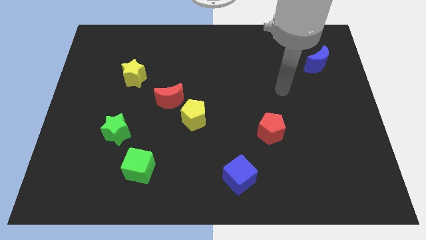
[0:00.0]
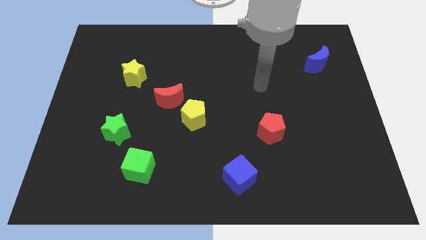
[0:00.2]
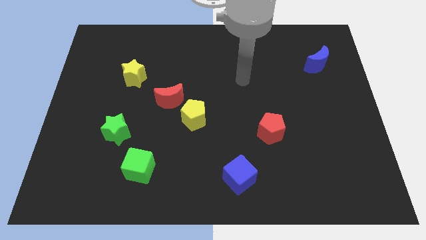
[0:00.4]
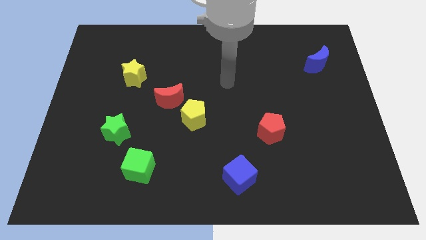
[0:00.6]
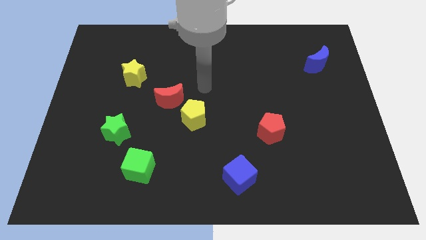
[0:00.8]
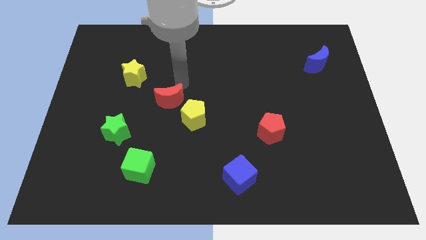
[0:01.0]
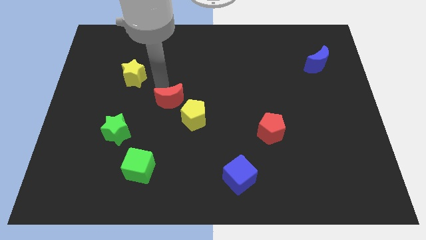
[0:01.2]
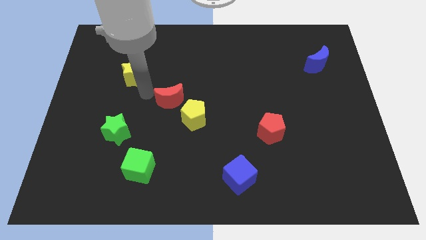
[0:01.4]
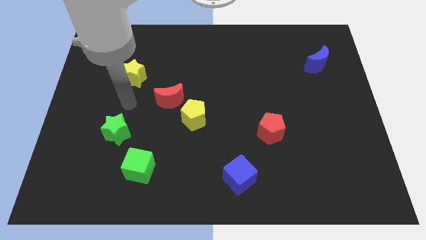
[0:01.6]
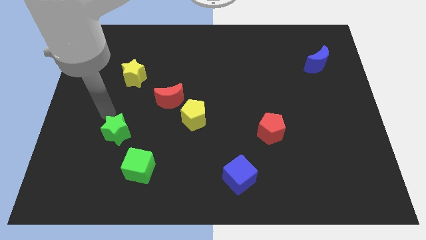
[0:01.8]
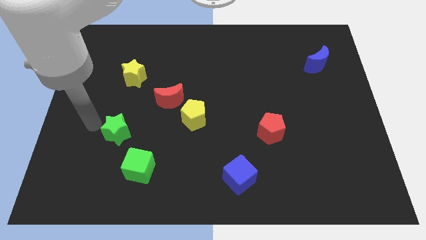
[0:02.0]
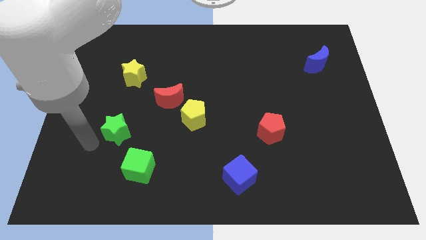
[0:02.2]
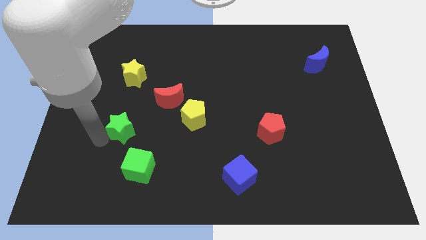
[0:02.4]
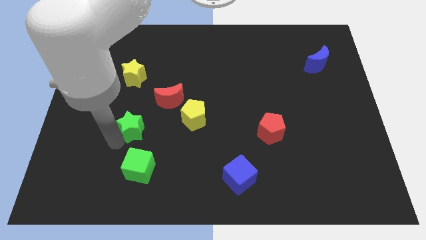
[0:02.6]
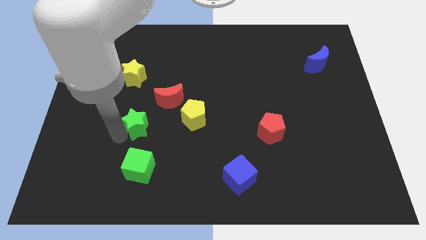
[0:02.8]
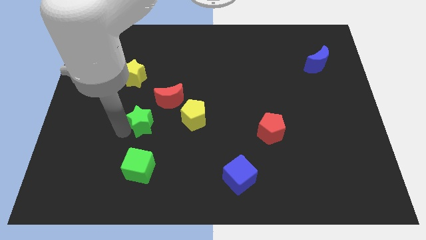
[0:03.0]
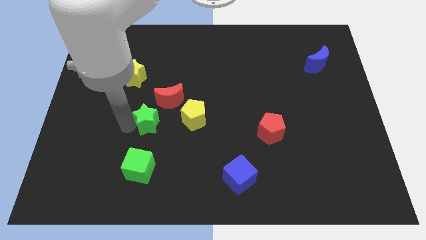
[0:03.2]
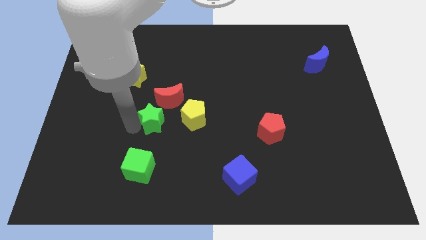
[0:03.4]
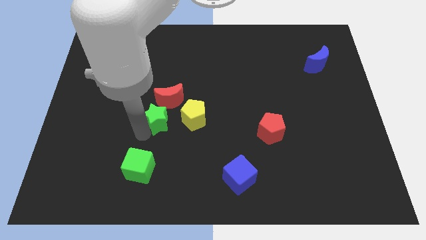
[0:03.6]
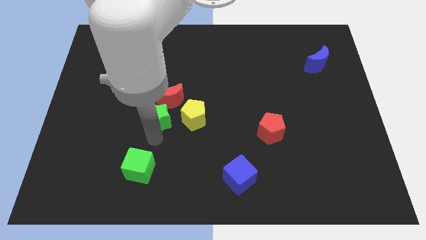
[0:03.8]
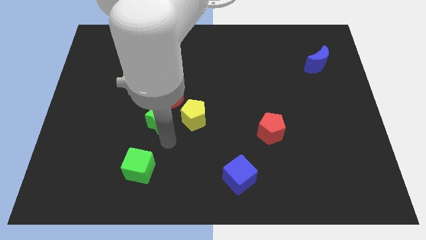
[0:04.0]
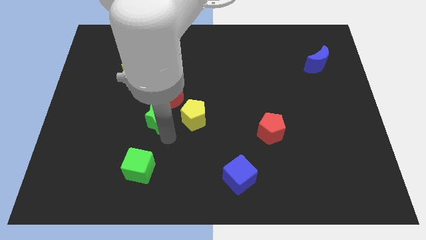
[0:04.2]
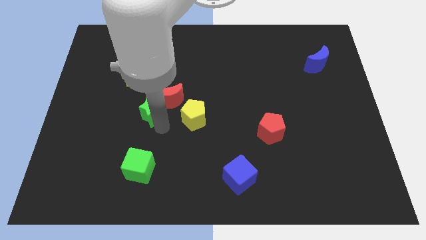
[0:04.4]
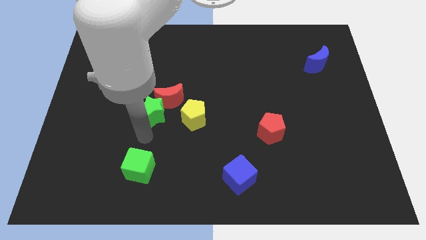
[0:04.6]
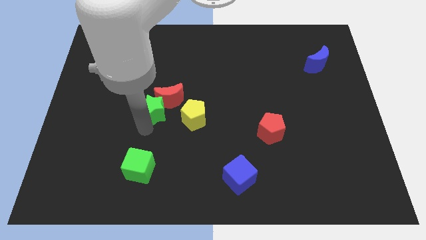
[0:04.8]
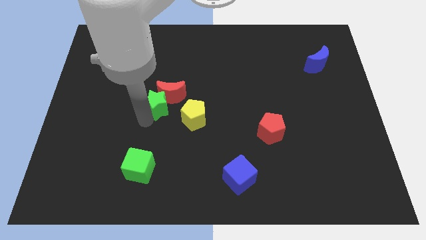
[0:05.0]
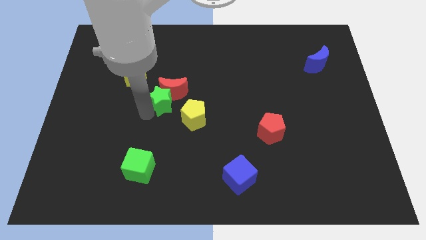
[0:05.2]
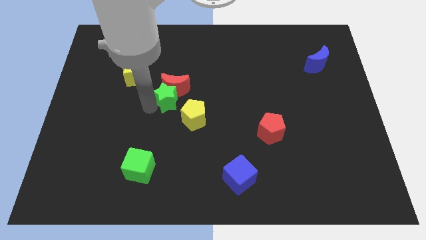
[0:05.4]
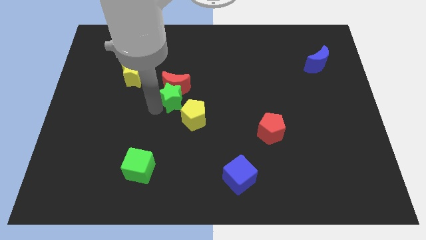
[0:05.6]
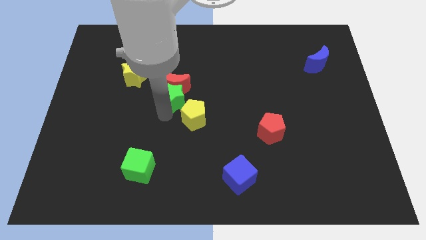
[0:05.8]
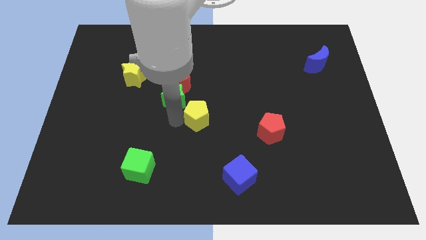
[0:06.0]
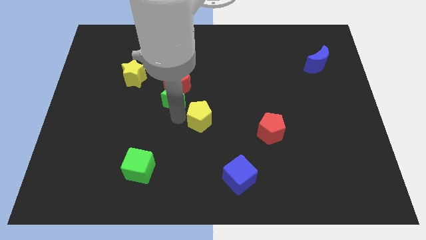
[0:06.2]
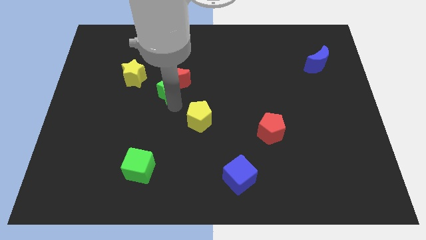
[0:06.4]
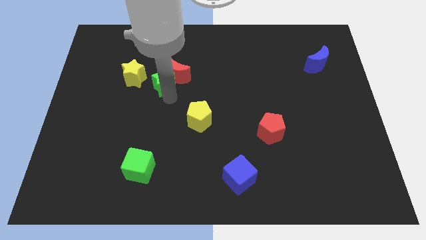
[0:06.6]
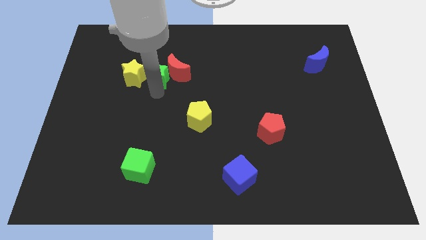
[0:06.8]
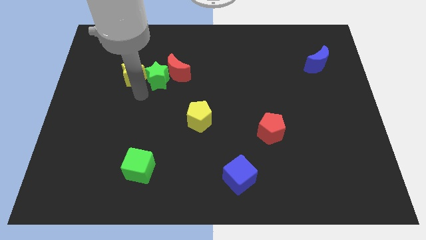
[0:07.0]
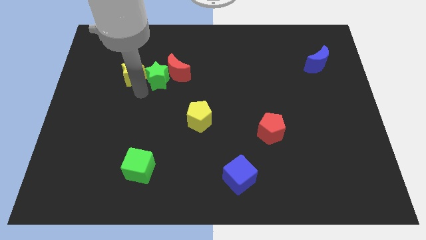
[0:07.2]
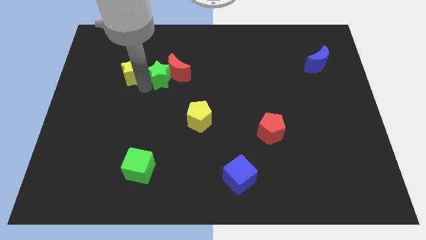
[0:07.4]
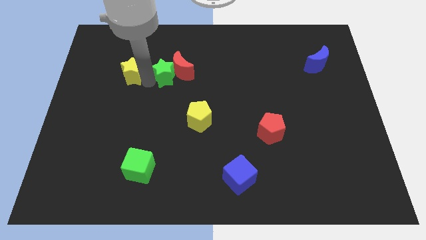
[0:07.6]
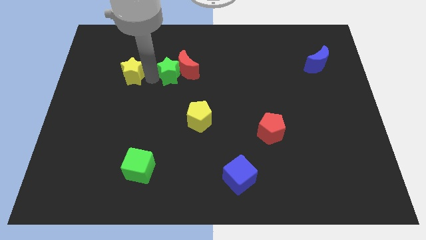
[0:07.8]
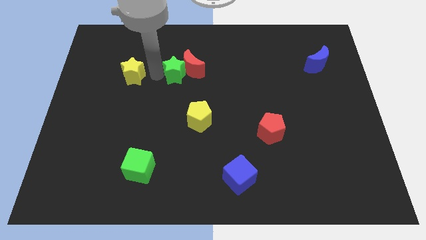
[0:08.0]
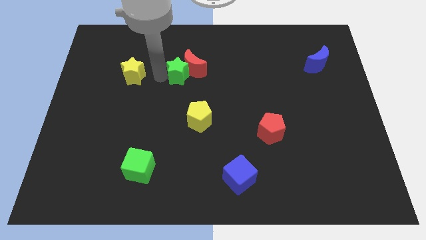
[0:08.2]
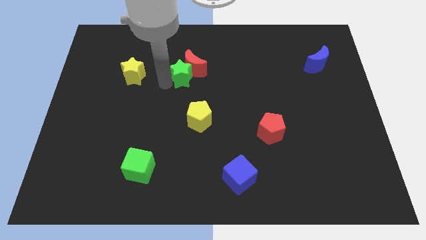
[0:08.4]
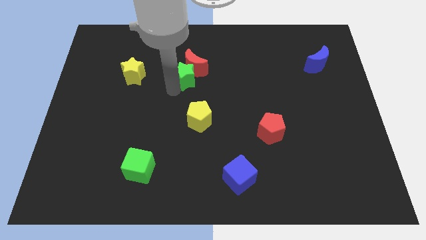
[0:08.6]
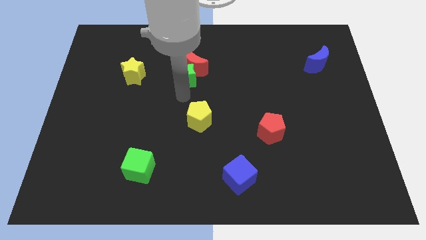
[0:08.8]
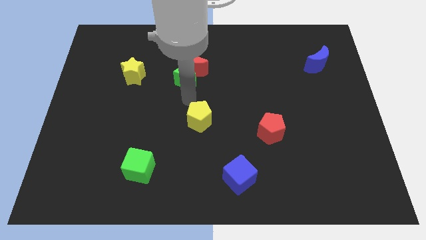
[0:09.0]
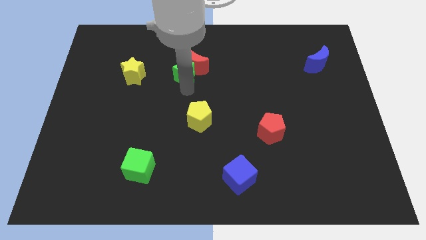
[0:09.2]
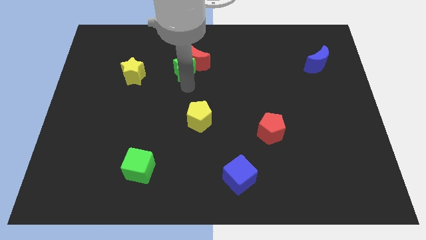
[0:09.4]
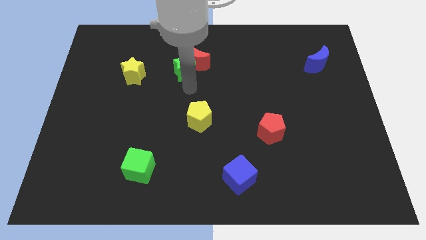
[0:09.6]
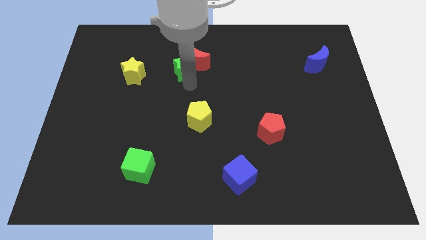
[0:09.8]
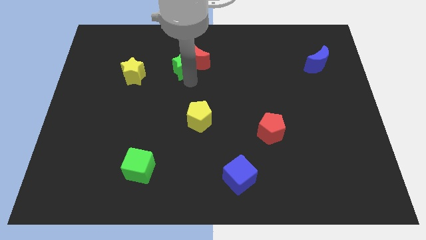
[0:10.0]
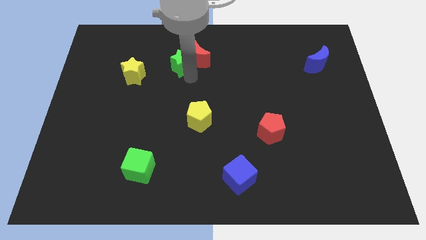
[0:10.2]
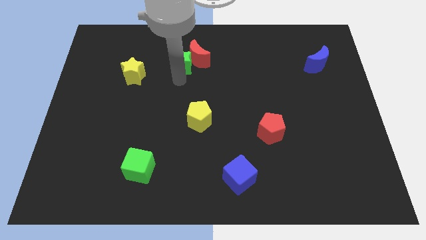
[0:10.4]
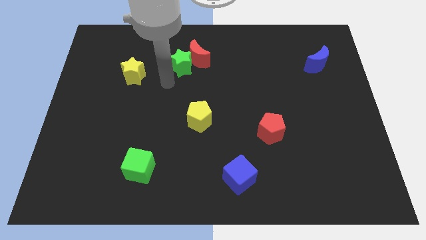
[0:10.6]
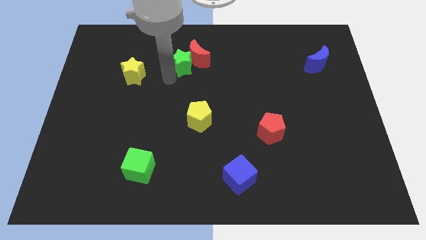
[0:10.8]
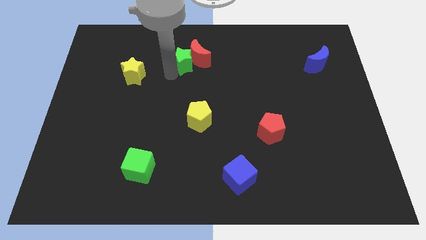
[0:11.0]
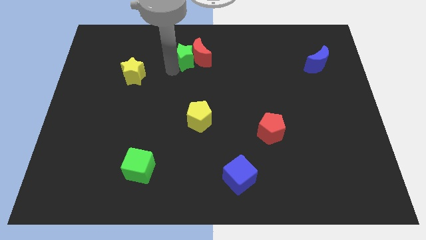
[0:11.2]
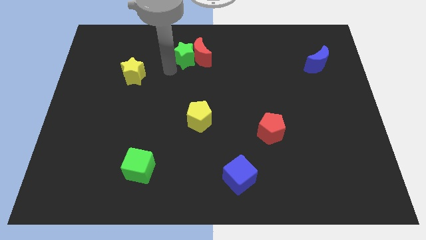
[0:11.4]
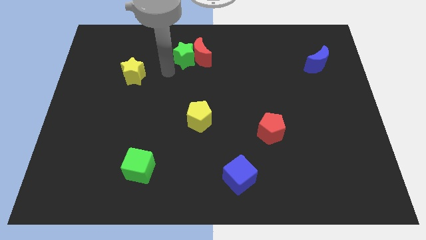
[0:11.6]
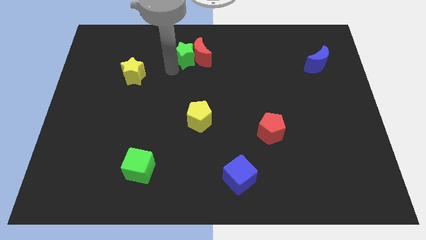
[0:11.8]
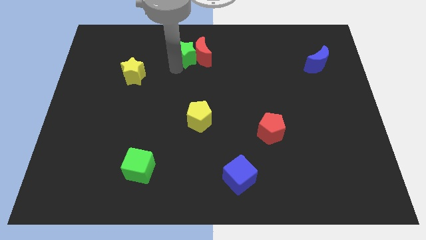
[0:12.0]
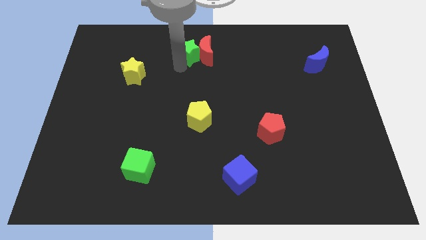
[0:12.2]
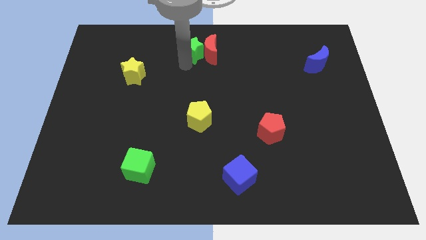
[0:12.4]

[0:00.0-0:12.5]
push the green star to the towards your base

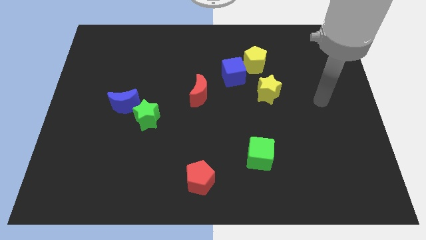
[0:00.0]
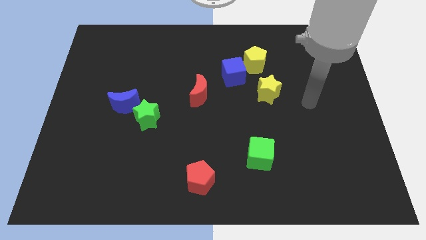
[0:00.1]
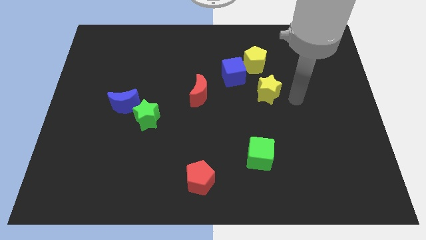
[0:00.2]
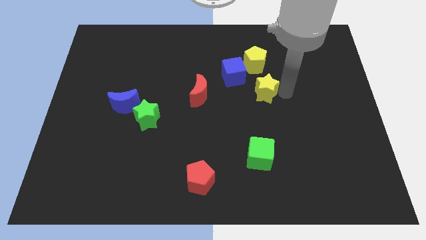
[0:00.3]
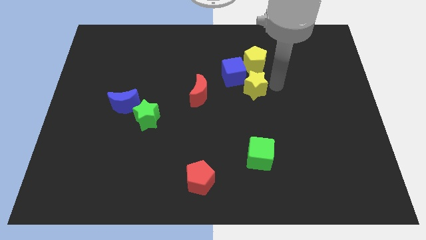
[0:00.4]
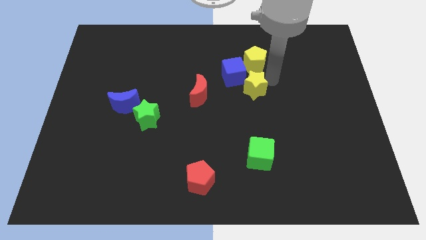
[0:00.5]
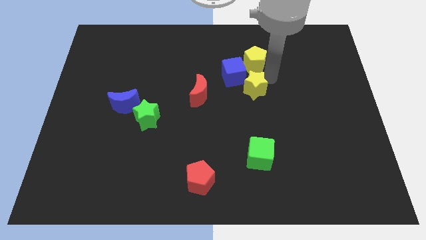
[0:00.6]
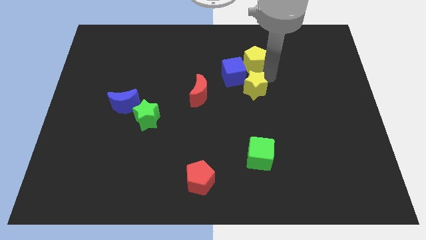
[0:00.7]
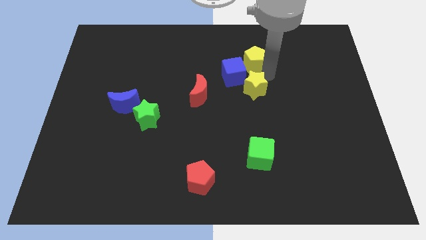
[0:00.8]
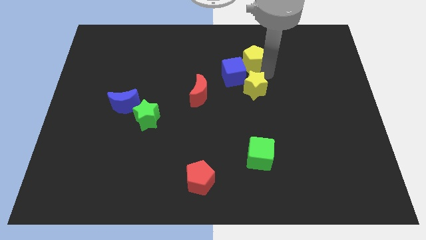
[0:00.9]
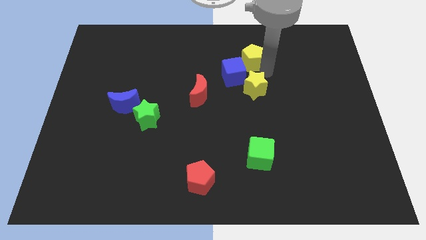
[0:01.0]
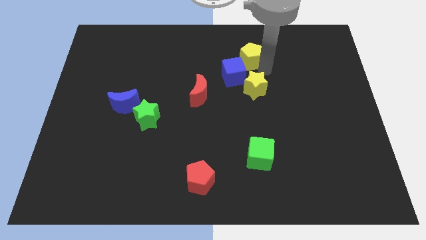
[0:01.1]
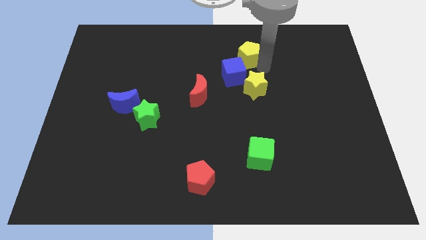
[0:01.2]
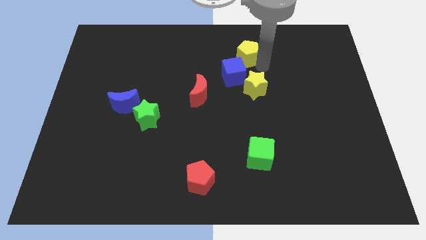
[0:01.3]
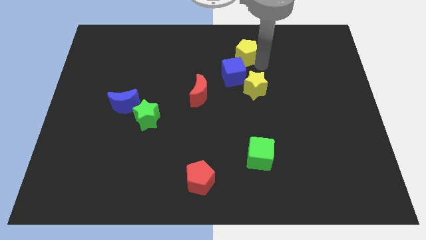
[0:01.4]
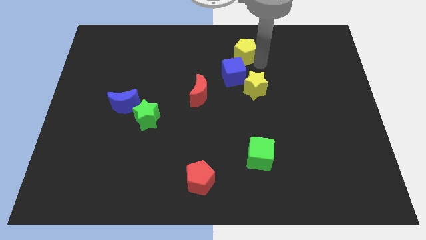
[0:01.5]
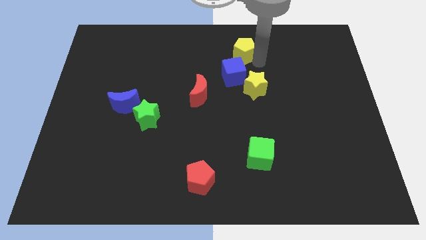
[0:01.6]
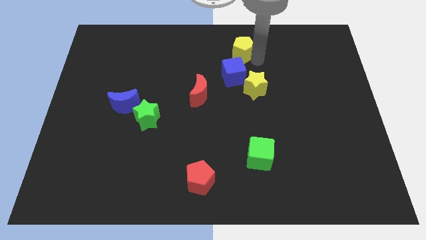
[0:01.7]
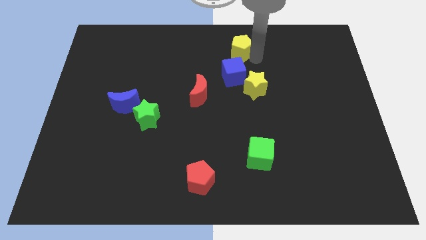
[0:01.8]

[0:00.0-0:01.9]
put the yellow pentagon to the top side
